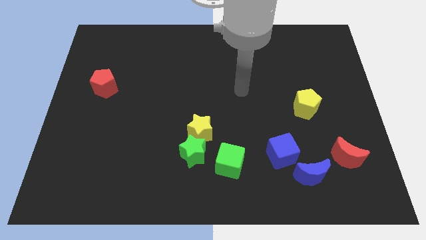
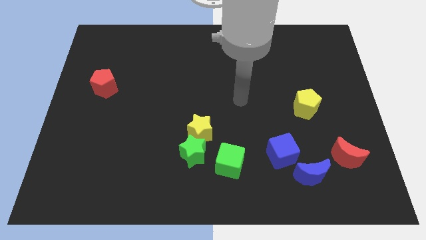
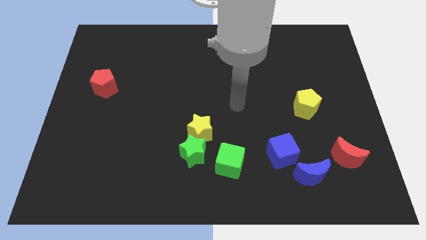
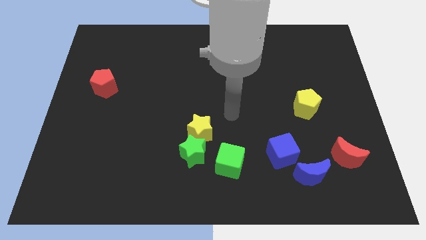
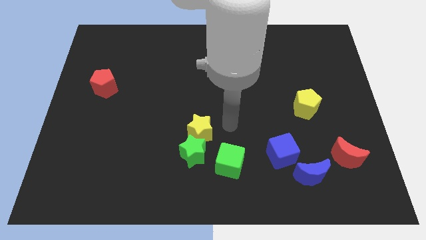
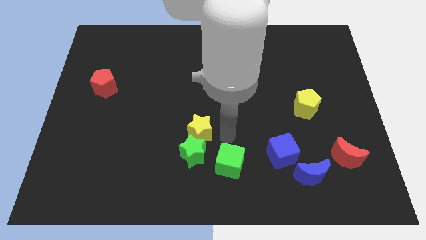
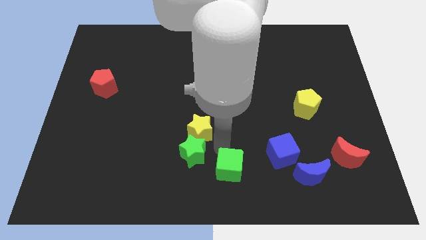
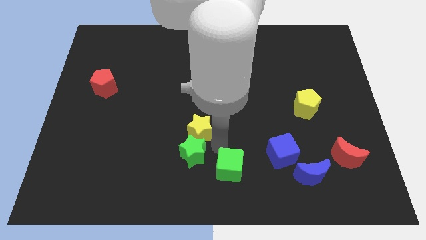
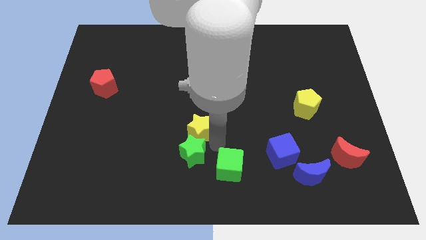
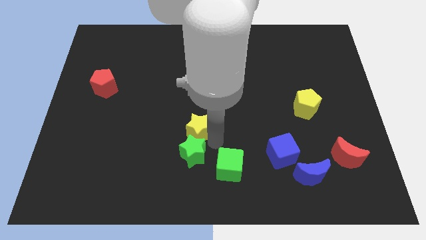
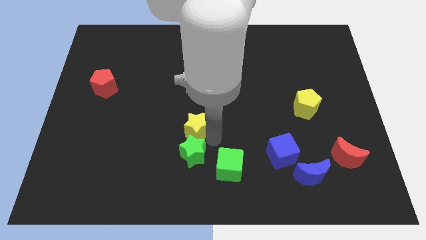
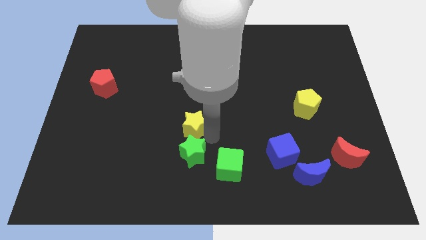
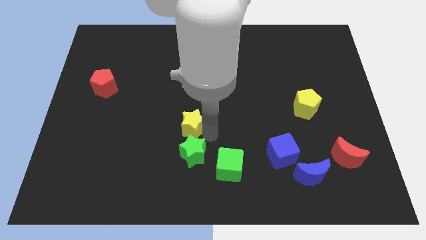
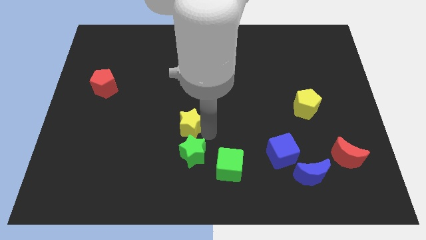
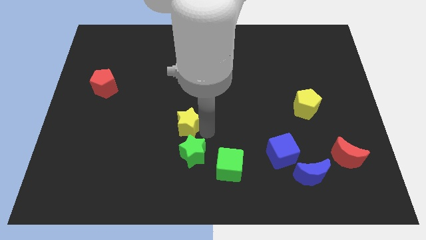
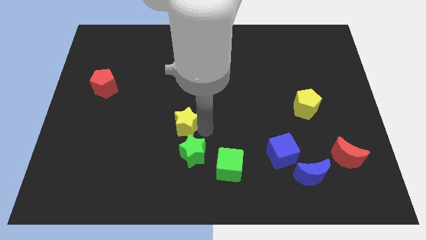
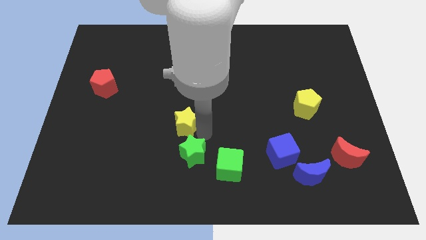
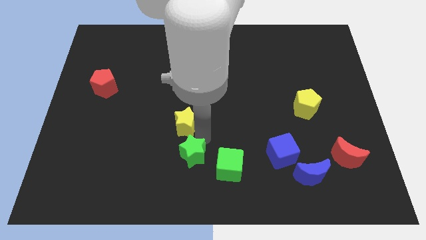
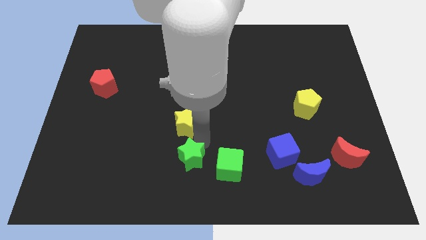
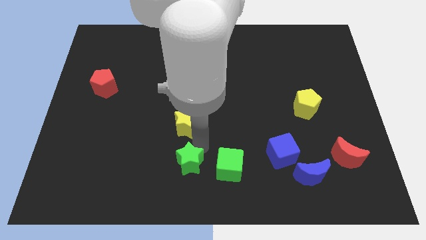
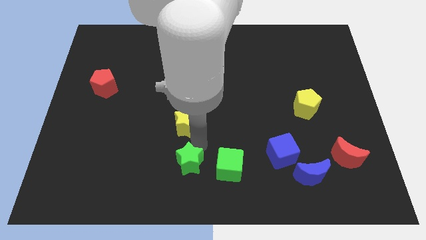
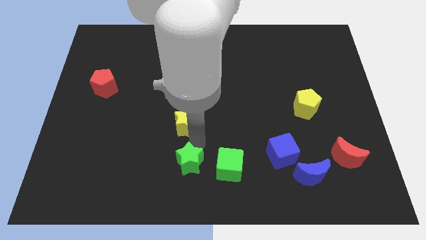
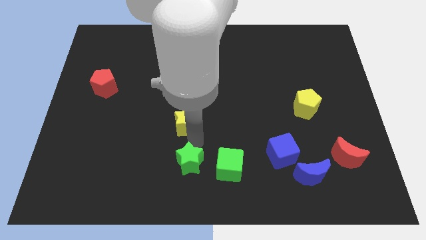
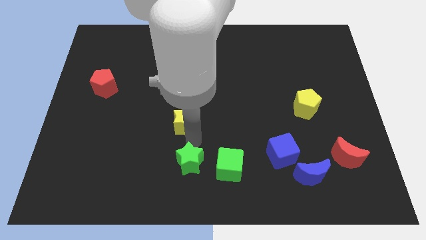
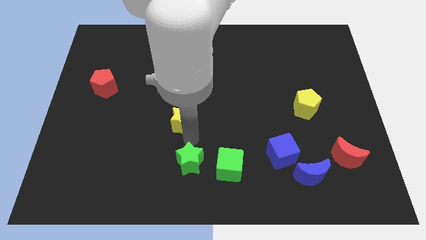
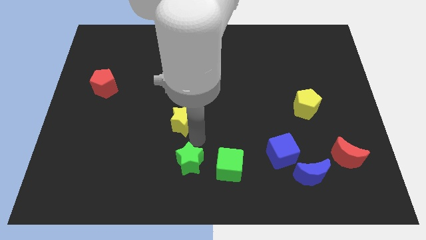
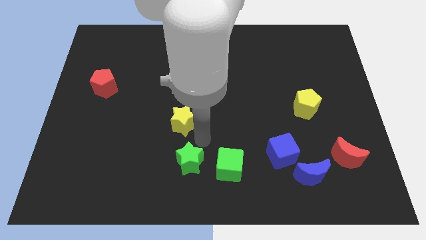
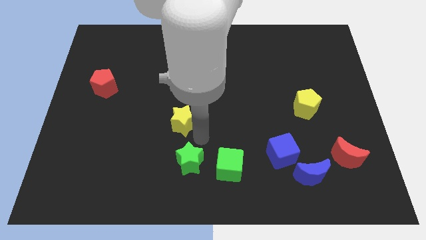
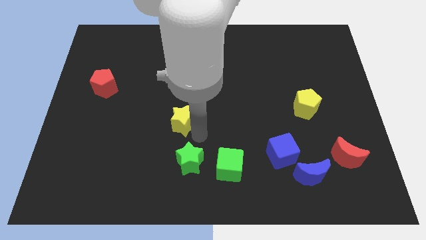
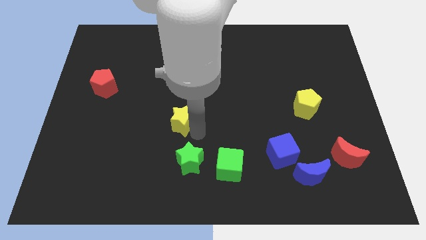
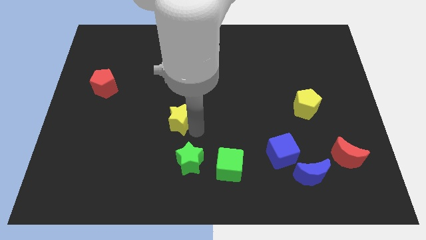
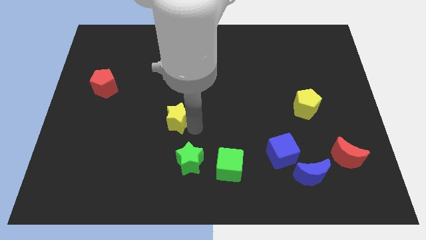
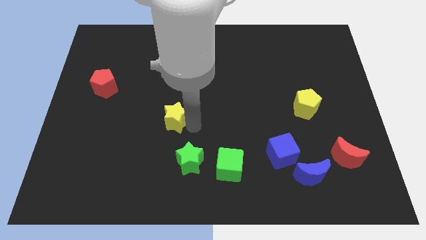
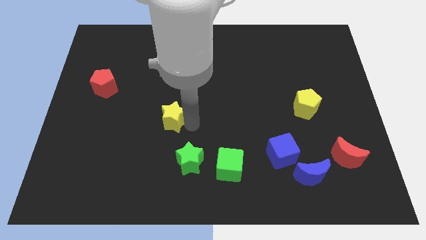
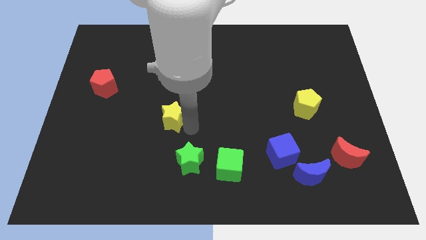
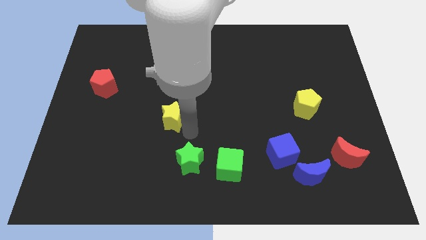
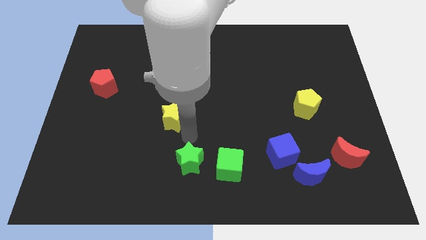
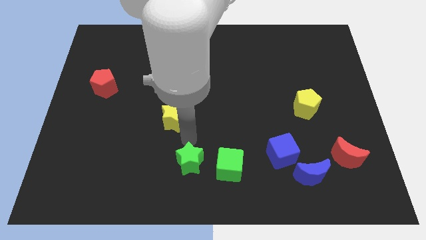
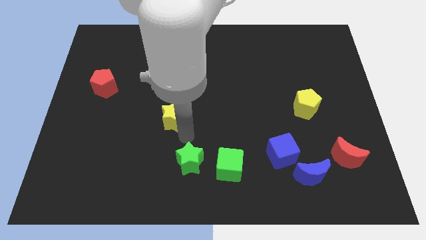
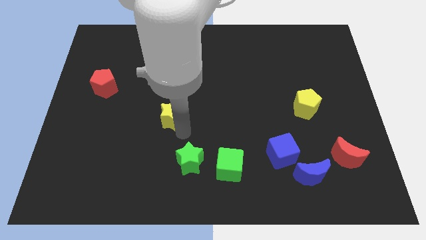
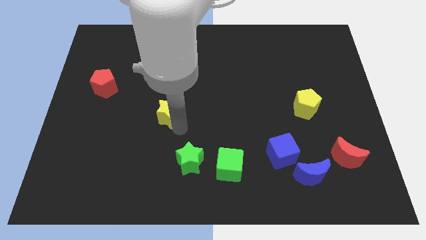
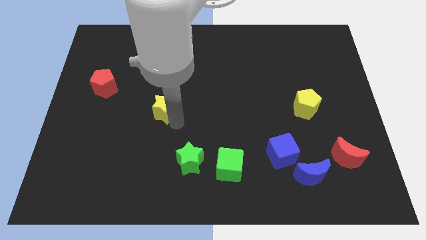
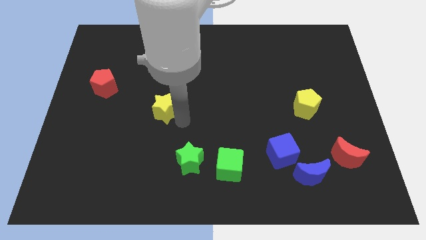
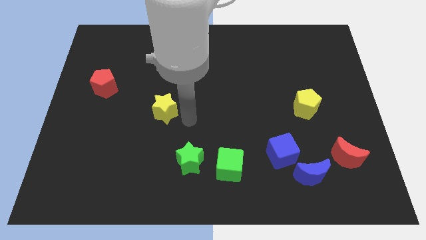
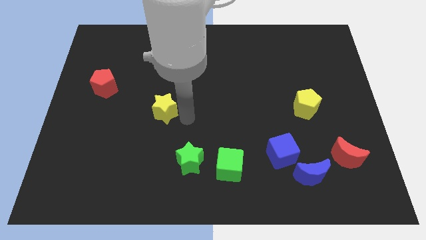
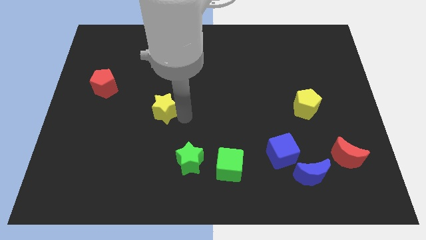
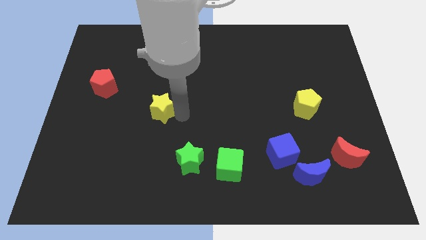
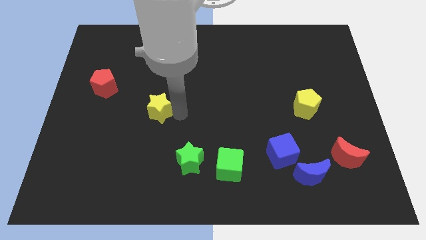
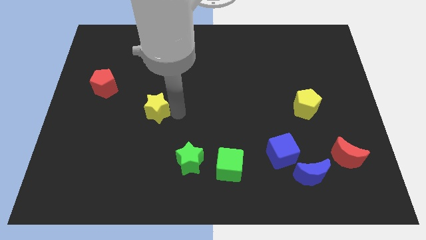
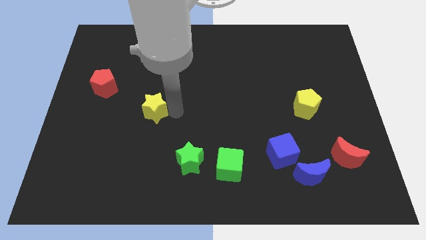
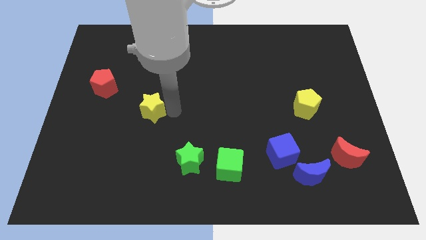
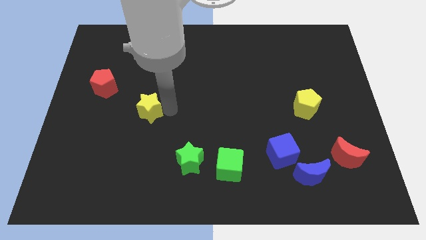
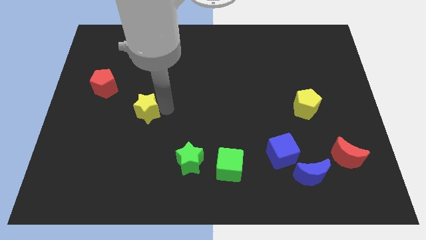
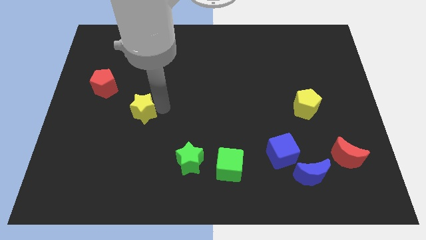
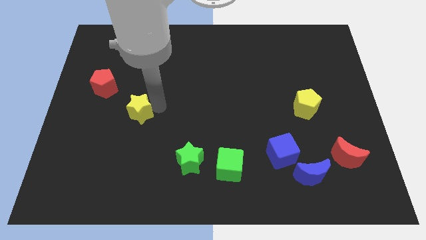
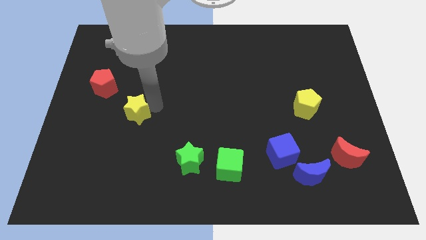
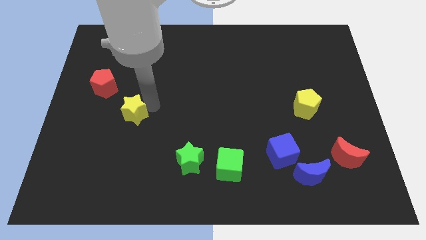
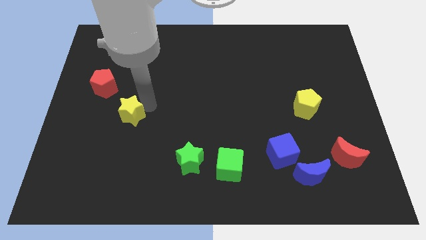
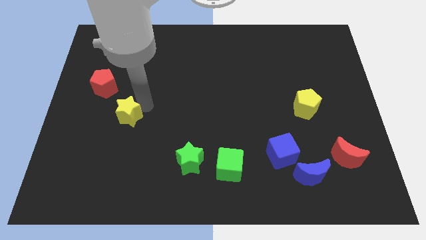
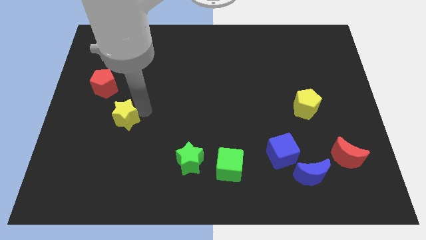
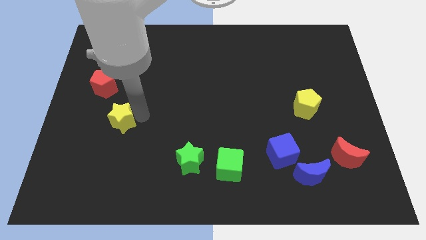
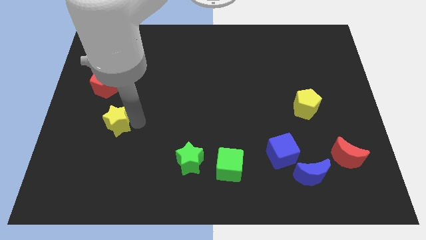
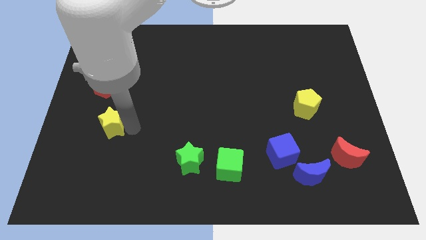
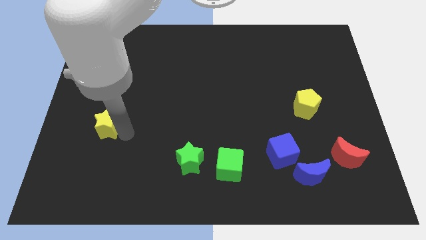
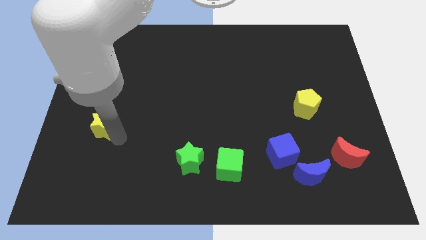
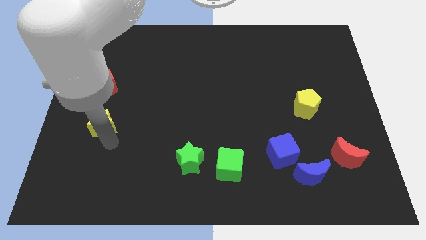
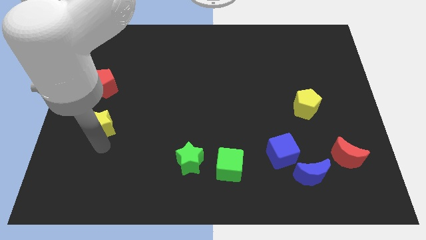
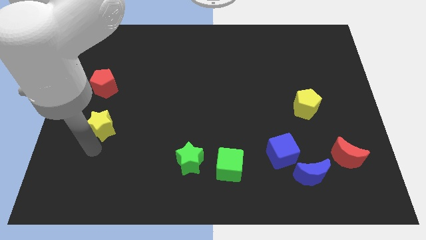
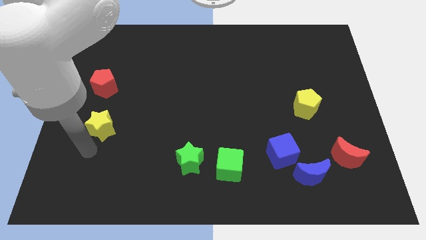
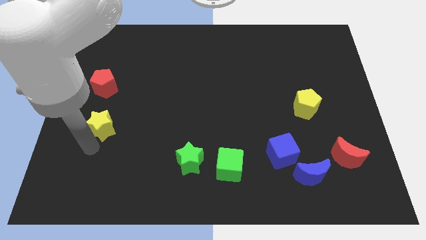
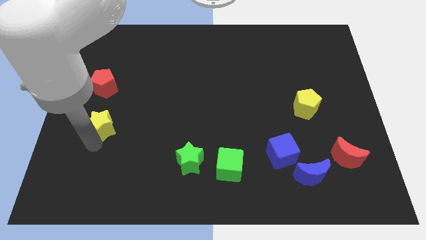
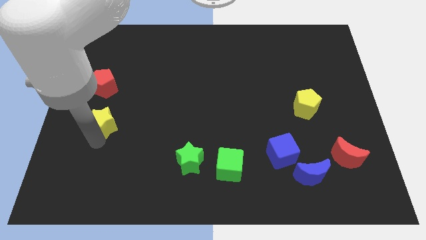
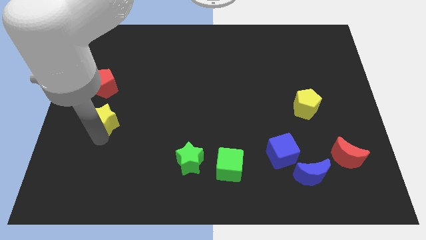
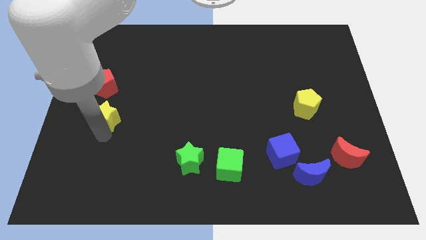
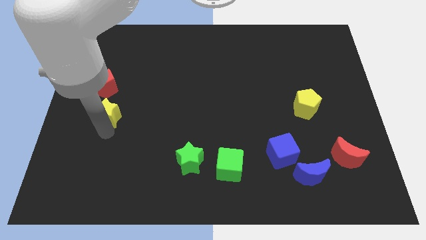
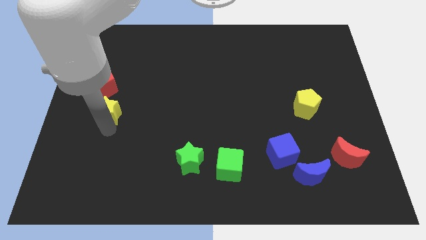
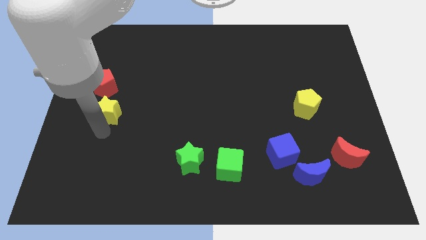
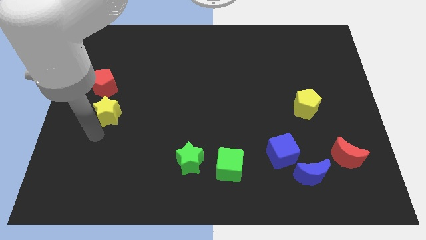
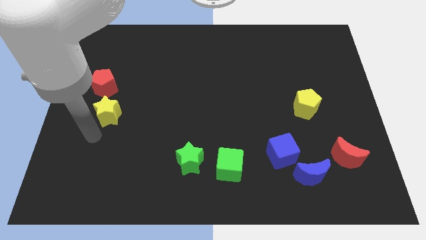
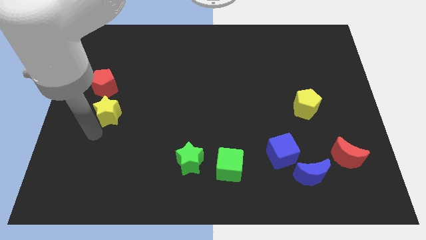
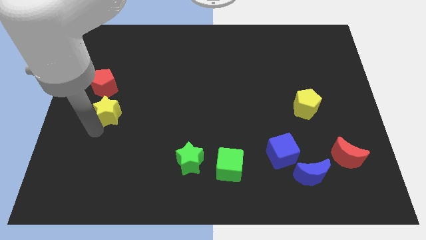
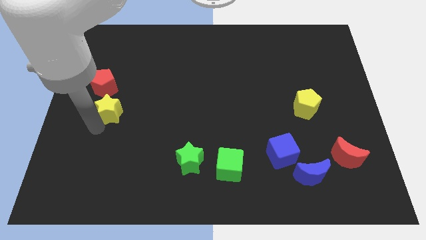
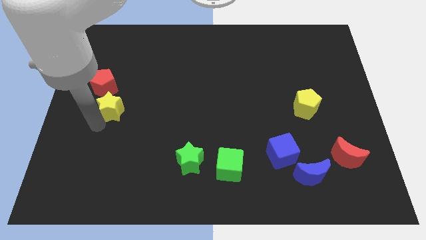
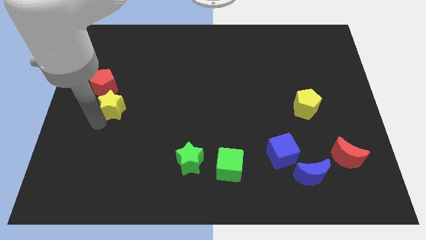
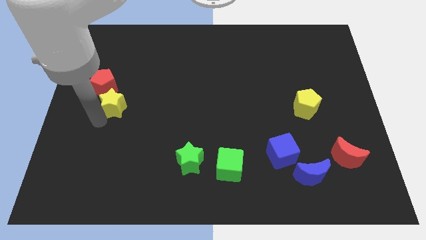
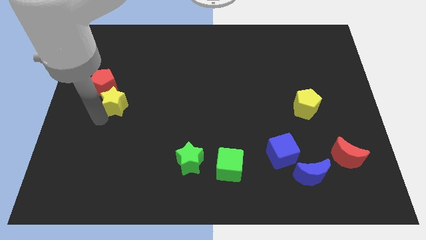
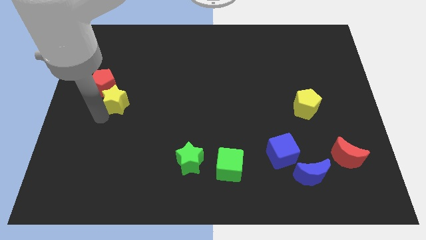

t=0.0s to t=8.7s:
push the yellow star to the red pentagon
